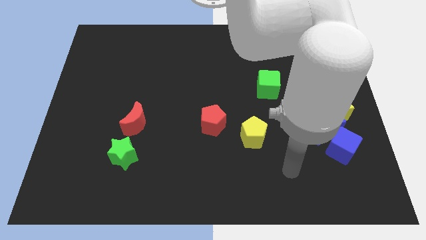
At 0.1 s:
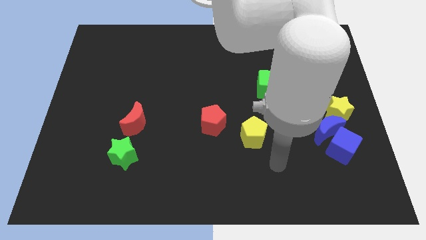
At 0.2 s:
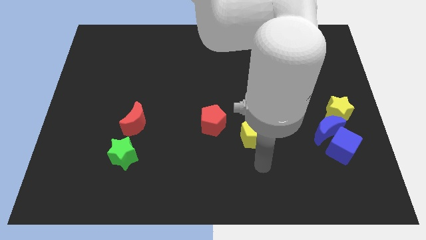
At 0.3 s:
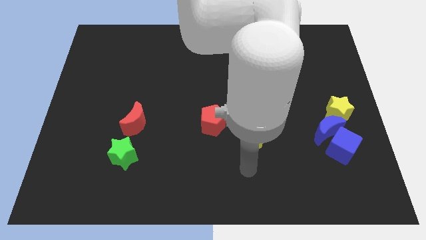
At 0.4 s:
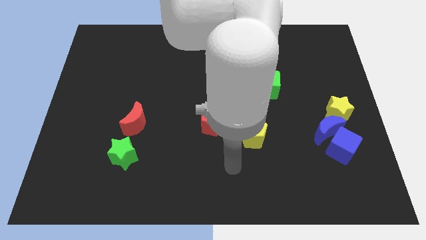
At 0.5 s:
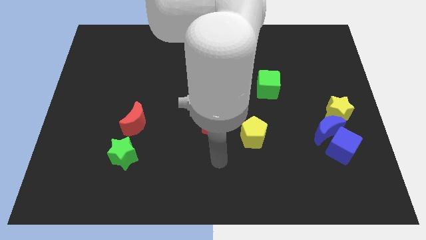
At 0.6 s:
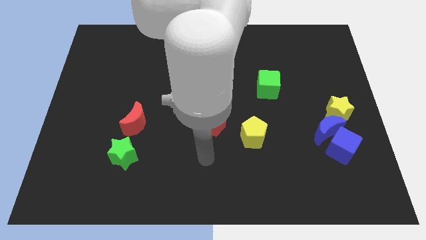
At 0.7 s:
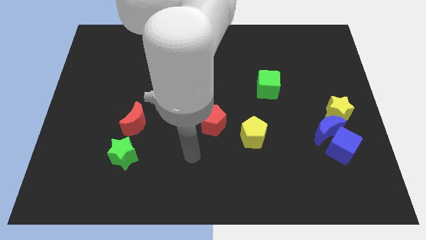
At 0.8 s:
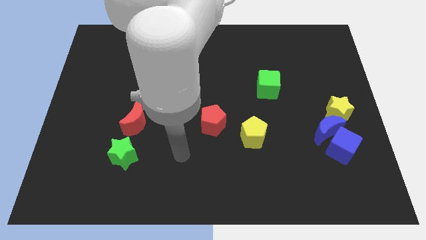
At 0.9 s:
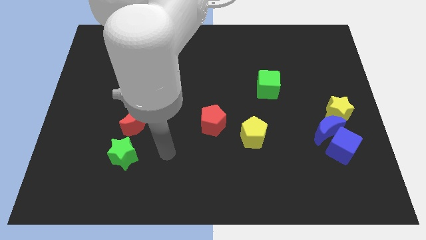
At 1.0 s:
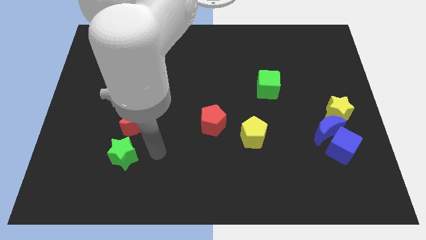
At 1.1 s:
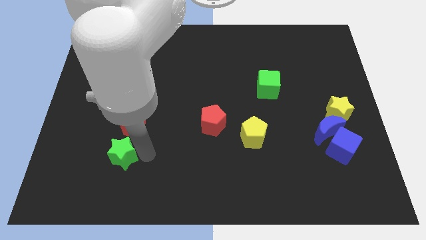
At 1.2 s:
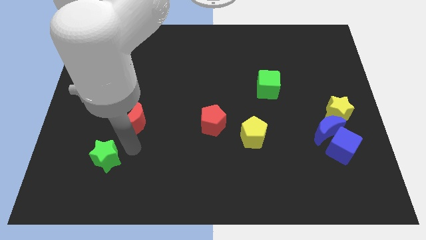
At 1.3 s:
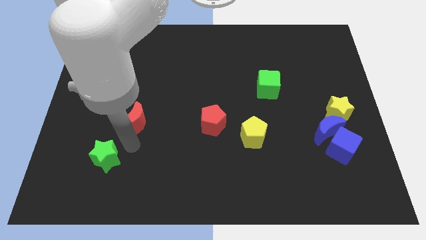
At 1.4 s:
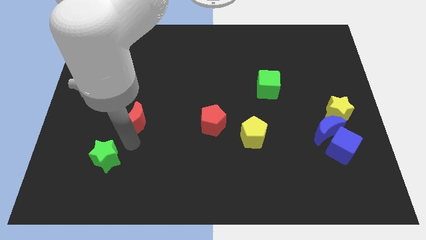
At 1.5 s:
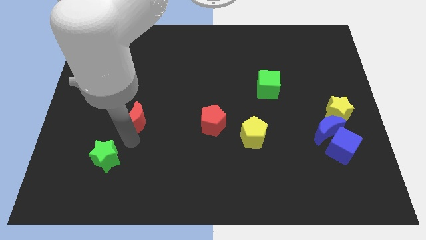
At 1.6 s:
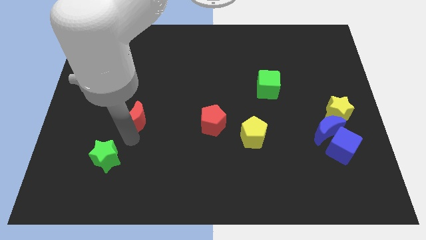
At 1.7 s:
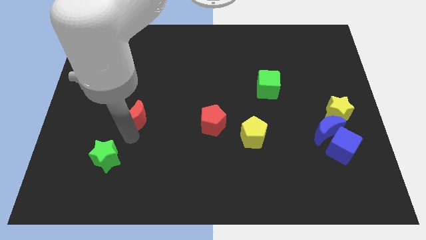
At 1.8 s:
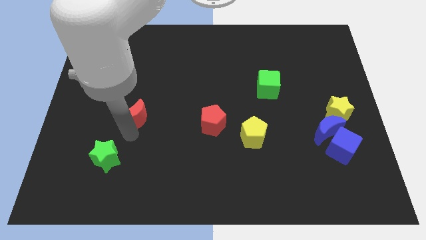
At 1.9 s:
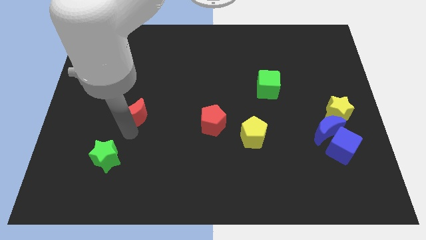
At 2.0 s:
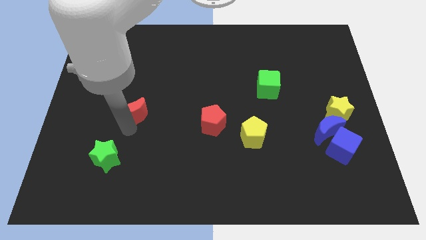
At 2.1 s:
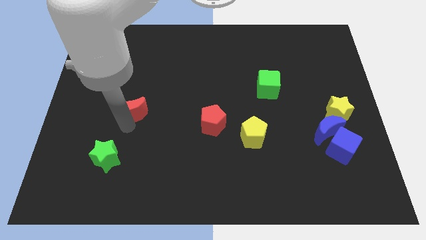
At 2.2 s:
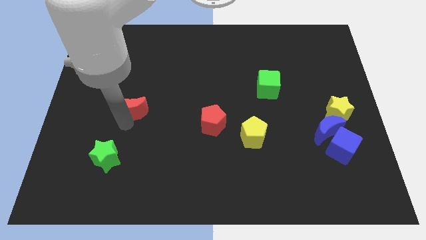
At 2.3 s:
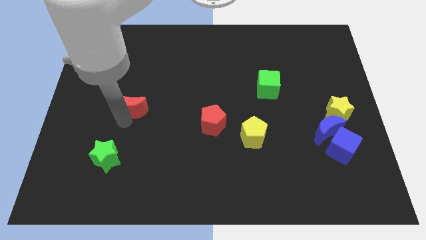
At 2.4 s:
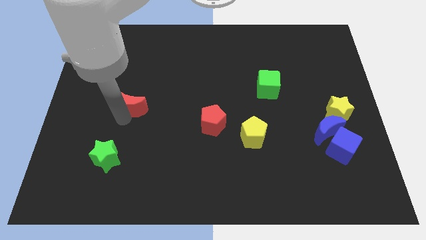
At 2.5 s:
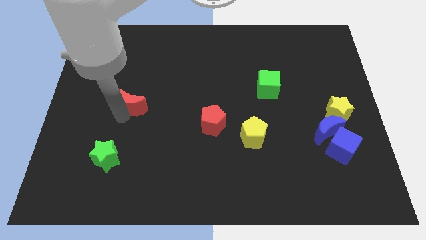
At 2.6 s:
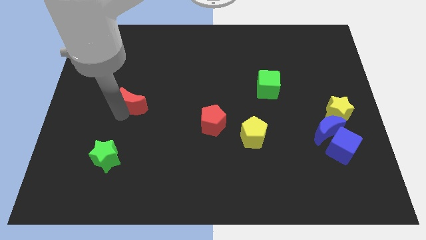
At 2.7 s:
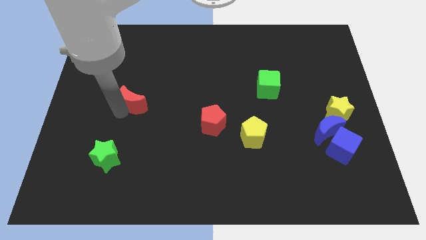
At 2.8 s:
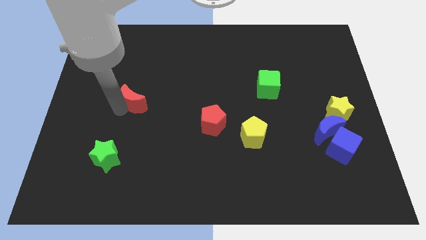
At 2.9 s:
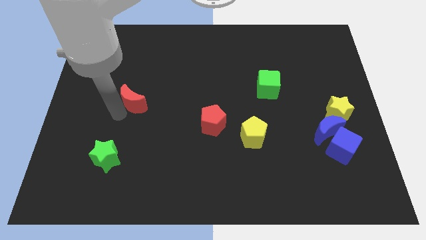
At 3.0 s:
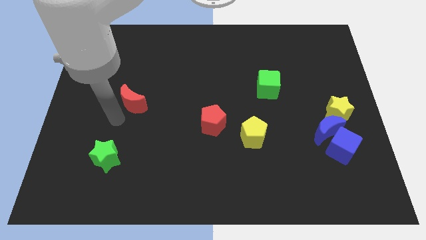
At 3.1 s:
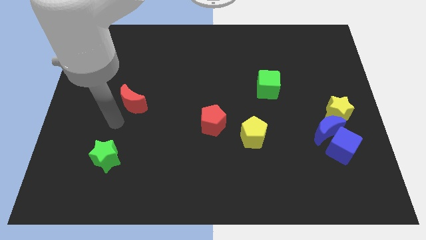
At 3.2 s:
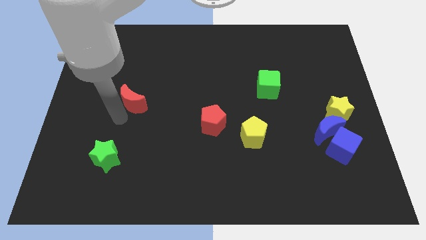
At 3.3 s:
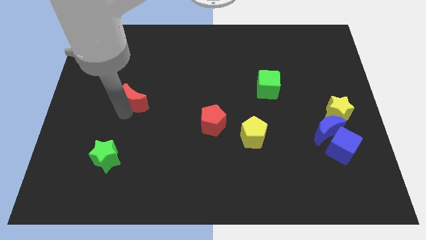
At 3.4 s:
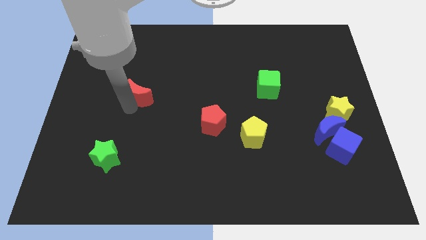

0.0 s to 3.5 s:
slightly move the red moon upwards

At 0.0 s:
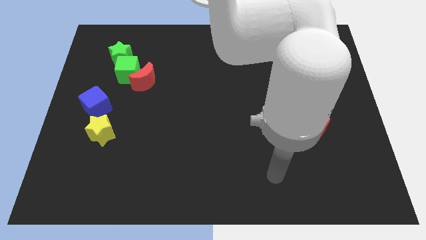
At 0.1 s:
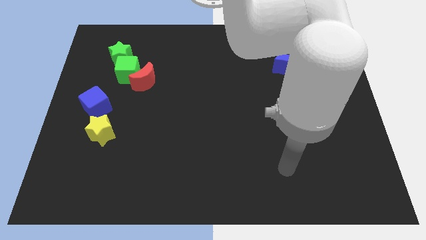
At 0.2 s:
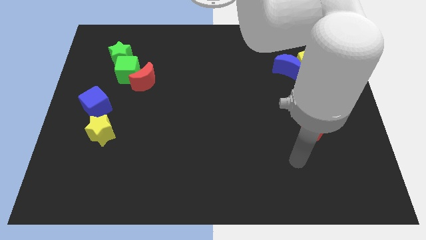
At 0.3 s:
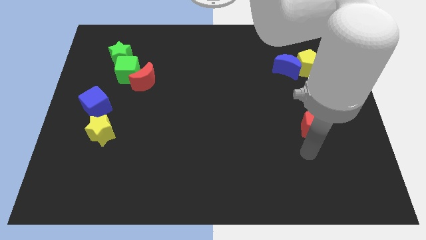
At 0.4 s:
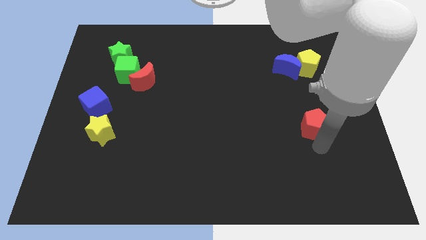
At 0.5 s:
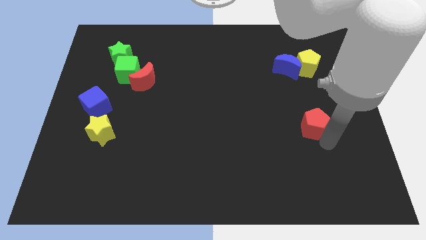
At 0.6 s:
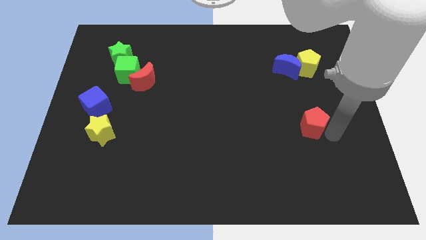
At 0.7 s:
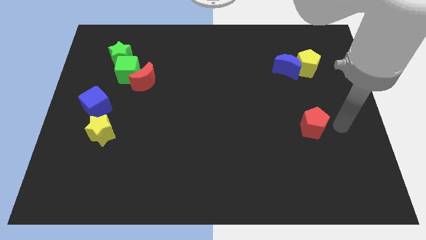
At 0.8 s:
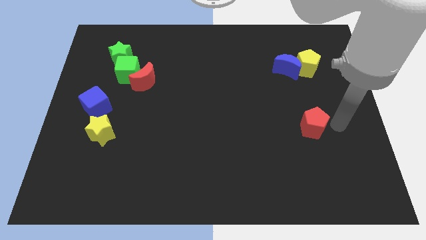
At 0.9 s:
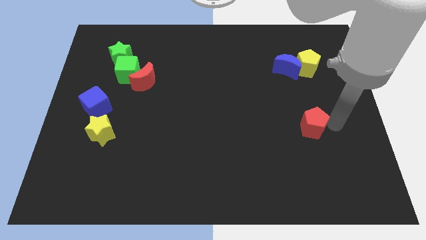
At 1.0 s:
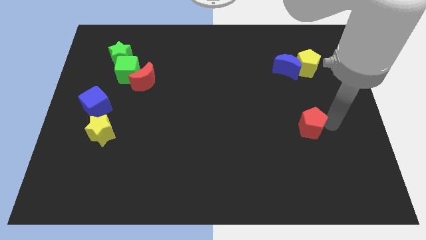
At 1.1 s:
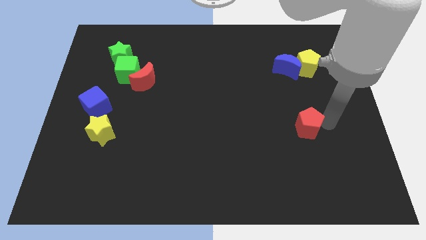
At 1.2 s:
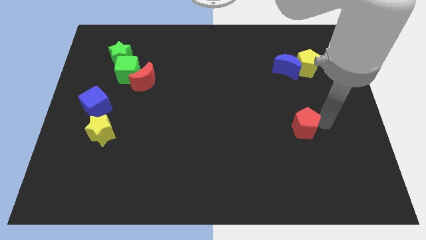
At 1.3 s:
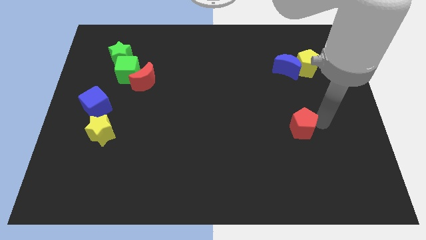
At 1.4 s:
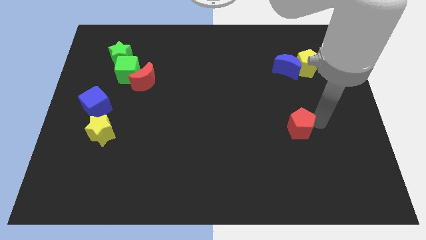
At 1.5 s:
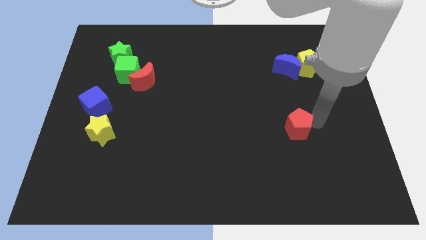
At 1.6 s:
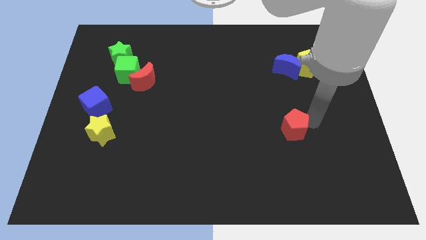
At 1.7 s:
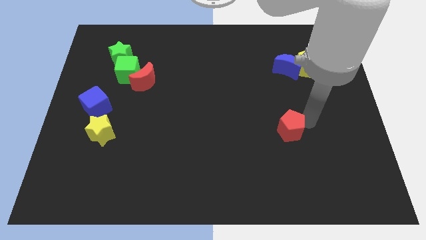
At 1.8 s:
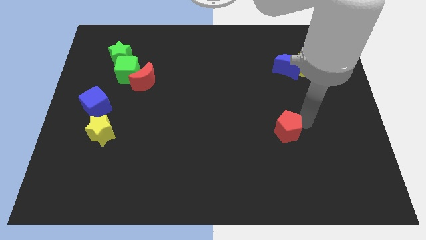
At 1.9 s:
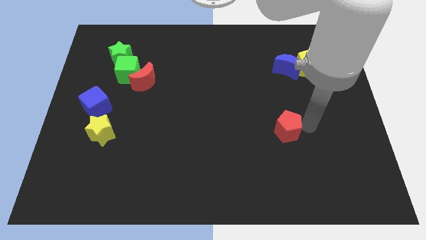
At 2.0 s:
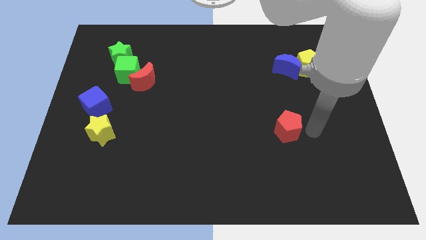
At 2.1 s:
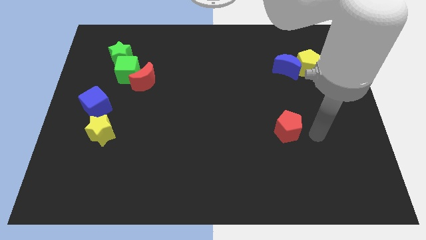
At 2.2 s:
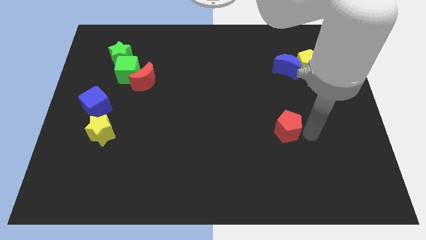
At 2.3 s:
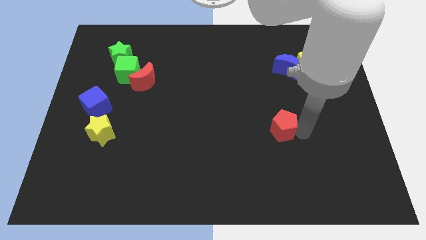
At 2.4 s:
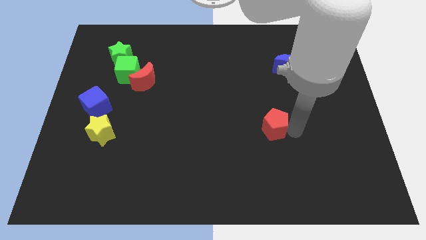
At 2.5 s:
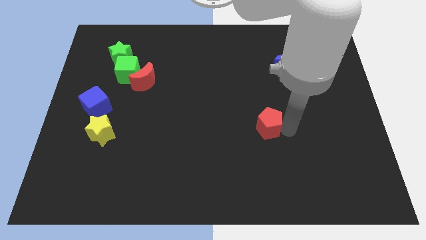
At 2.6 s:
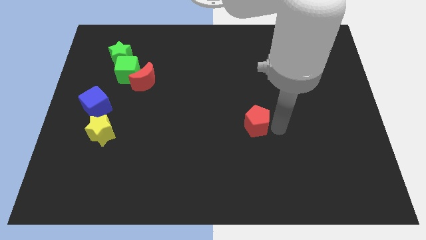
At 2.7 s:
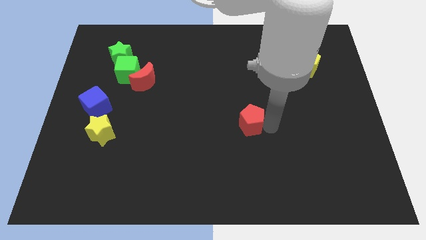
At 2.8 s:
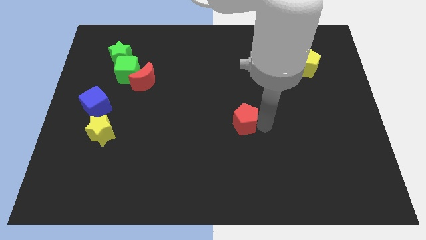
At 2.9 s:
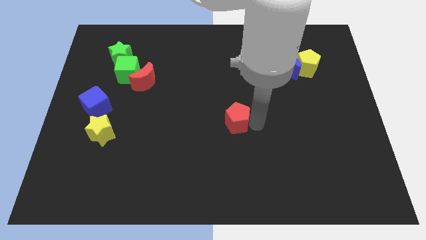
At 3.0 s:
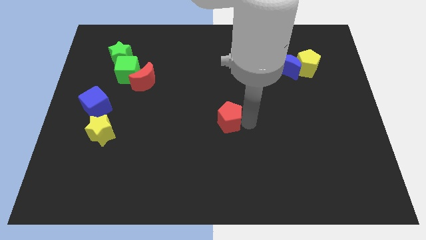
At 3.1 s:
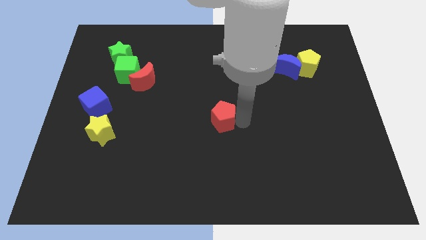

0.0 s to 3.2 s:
slide the red pentagon left

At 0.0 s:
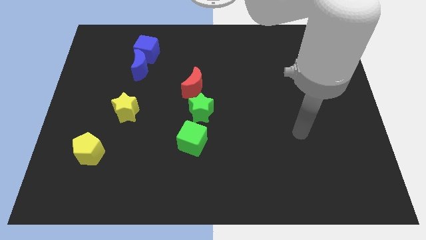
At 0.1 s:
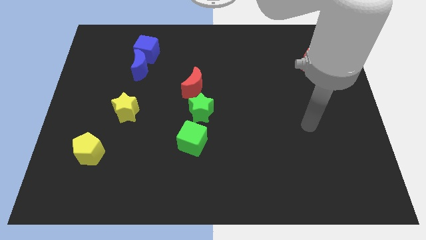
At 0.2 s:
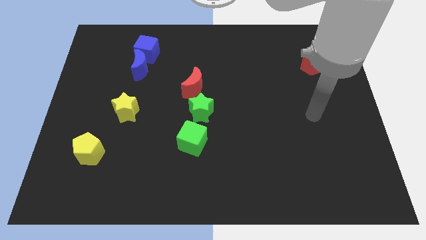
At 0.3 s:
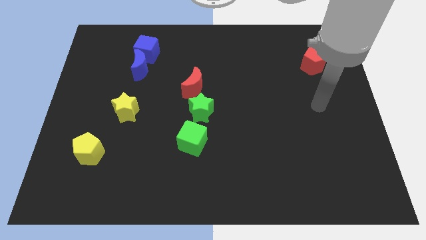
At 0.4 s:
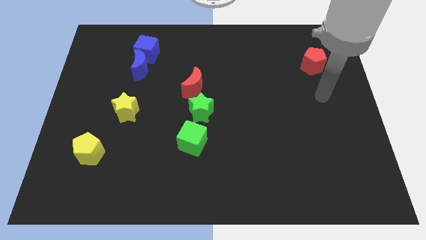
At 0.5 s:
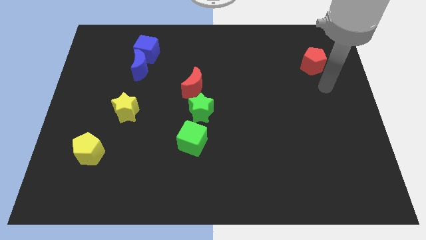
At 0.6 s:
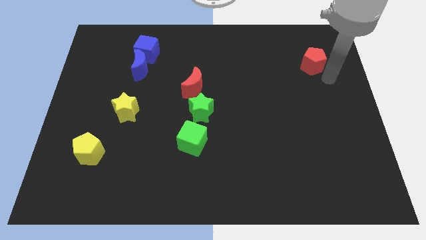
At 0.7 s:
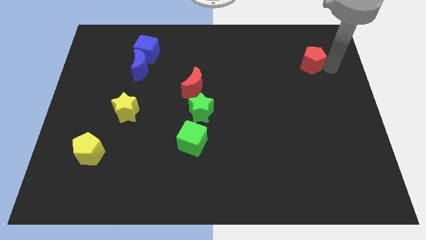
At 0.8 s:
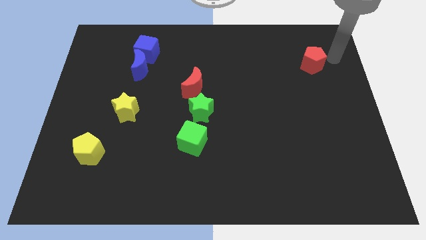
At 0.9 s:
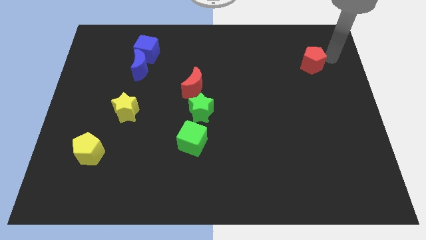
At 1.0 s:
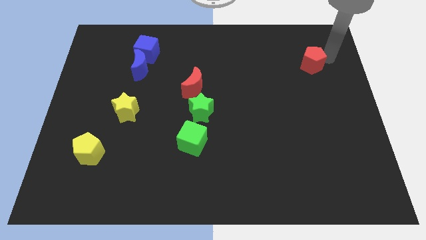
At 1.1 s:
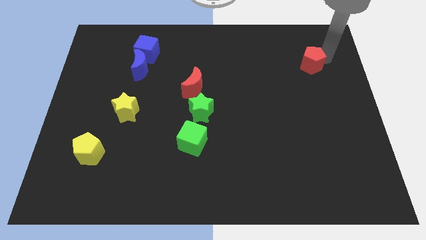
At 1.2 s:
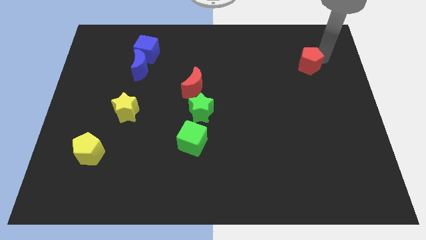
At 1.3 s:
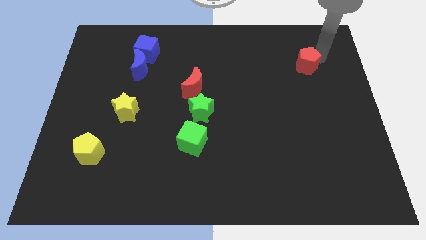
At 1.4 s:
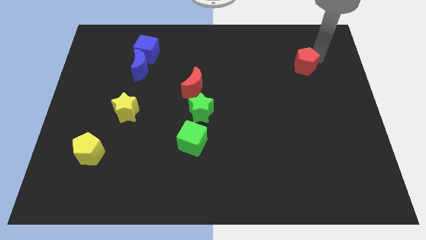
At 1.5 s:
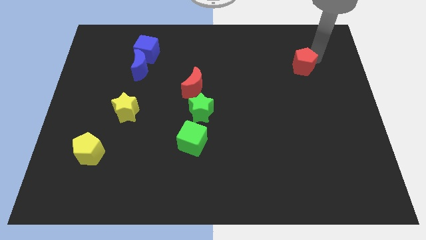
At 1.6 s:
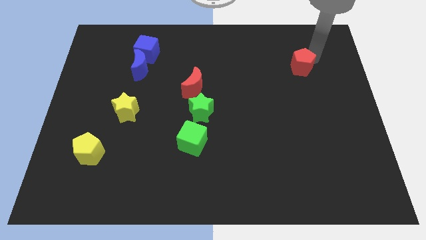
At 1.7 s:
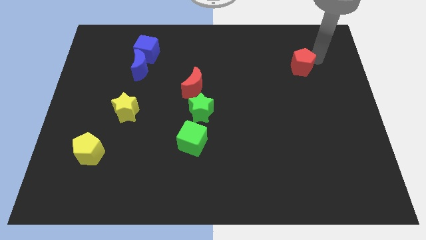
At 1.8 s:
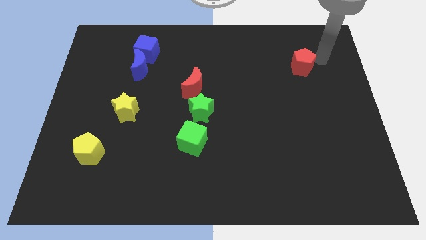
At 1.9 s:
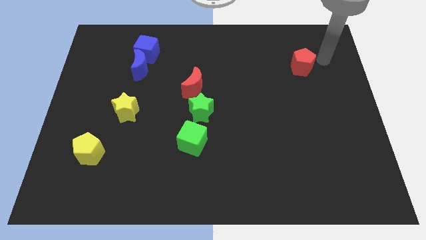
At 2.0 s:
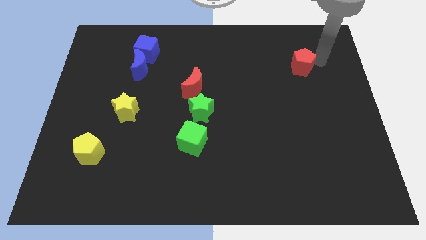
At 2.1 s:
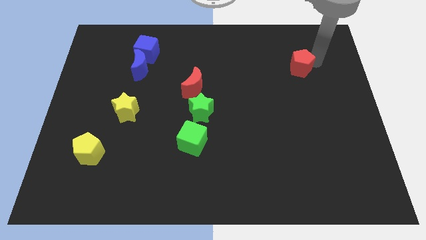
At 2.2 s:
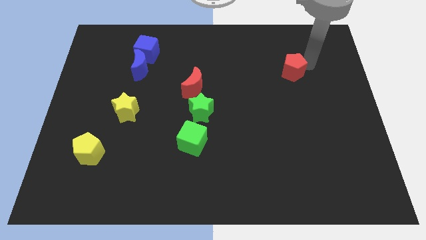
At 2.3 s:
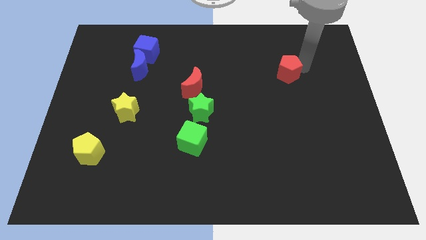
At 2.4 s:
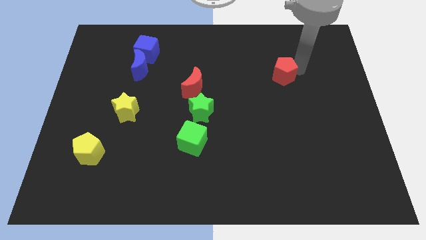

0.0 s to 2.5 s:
slide the red pentagon left a little bit
